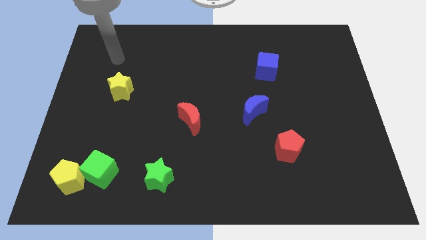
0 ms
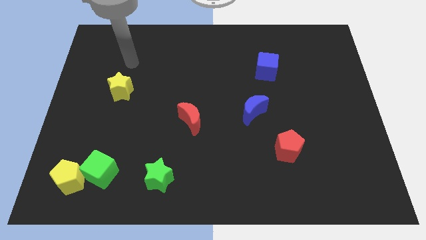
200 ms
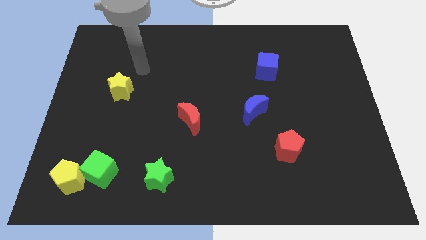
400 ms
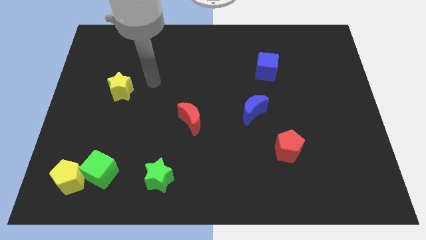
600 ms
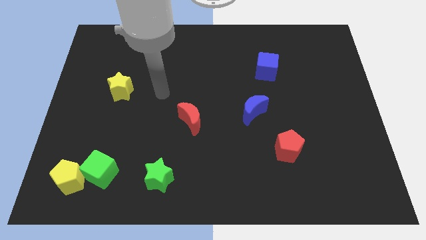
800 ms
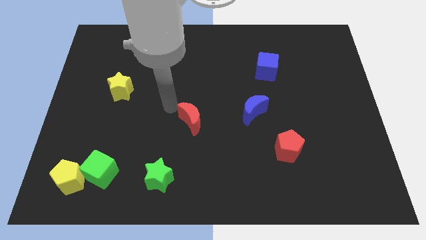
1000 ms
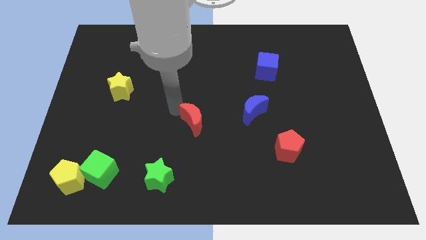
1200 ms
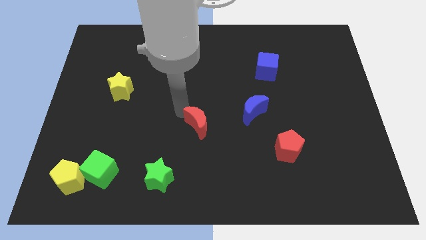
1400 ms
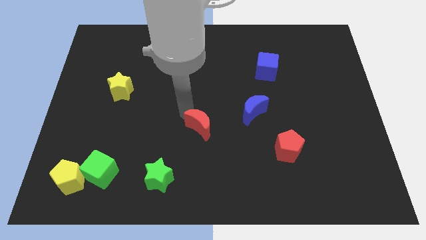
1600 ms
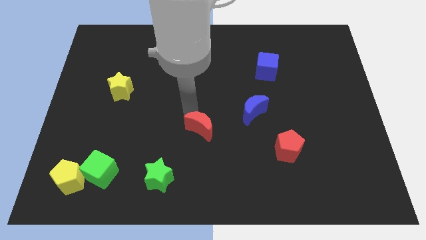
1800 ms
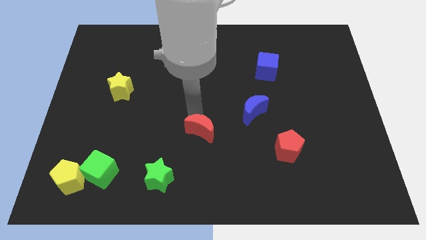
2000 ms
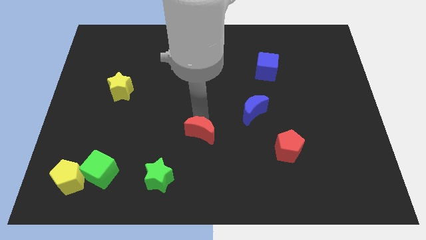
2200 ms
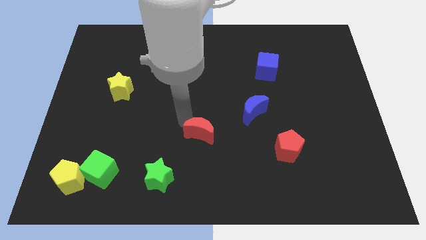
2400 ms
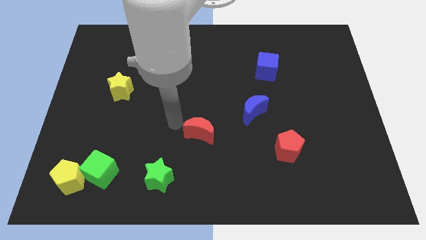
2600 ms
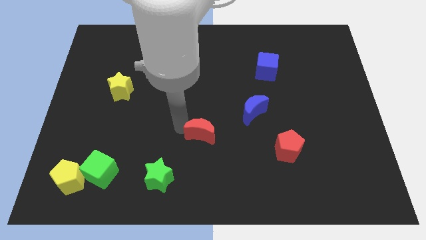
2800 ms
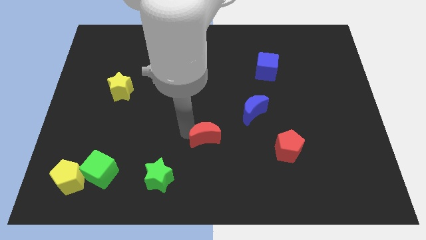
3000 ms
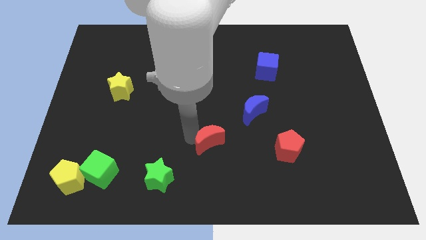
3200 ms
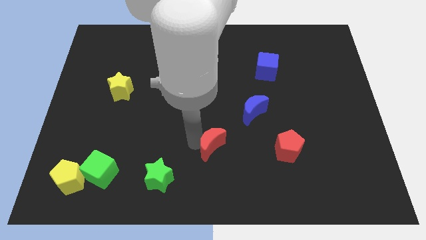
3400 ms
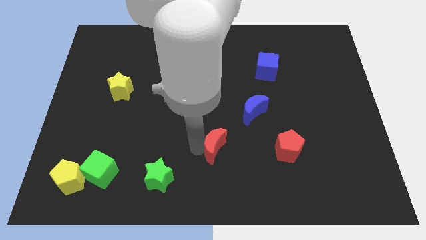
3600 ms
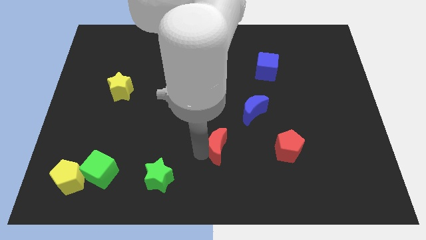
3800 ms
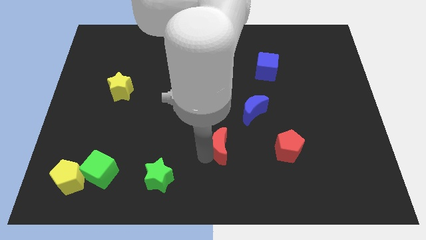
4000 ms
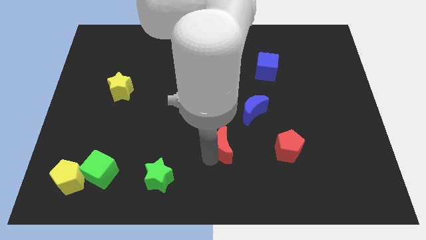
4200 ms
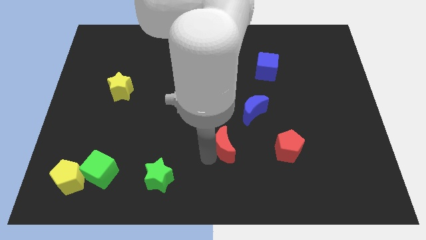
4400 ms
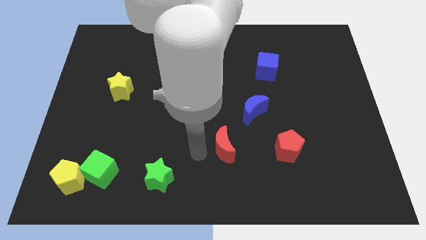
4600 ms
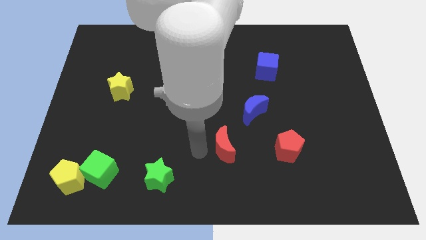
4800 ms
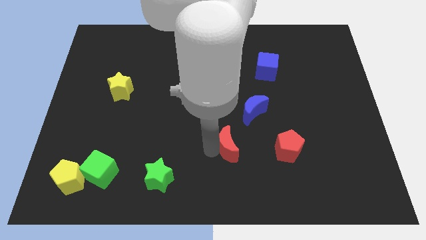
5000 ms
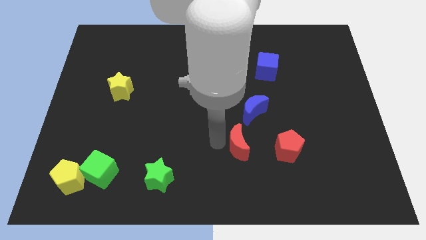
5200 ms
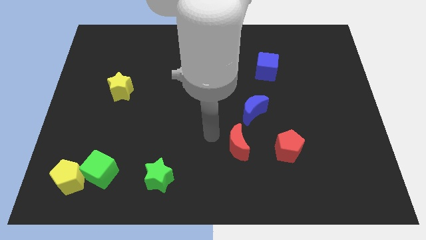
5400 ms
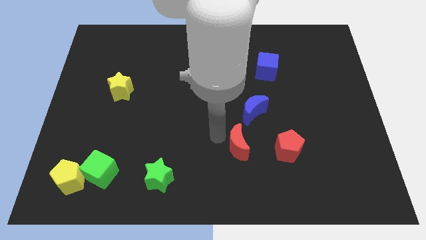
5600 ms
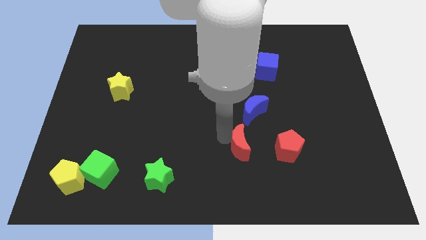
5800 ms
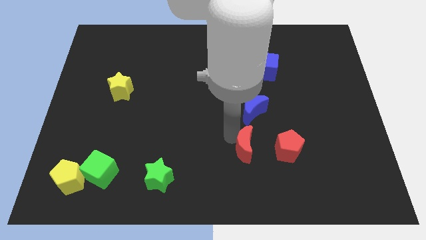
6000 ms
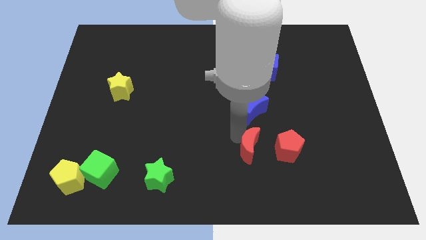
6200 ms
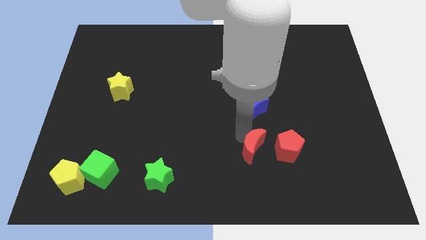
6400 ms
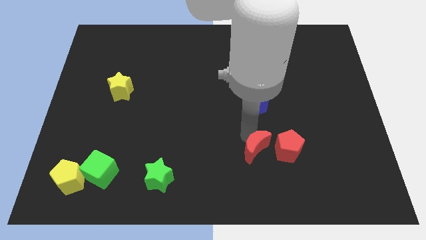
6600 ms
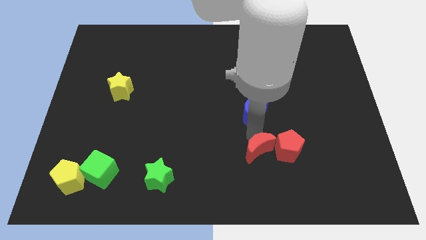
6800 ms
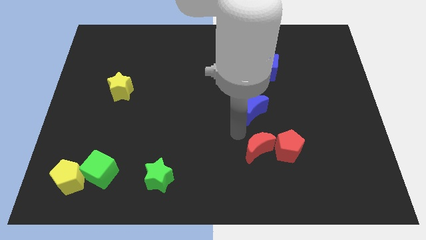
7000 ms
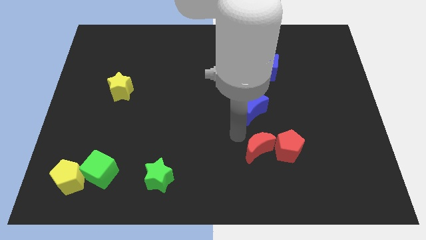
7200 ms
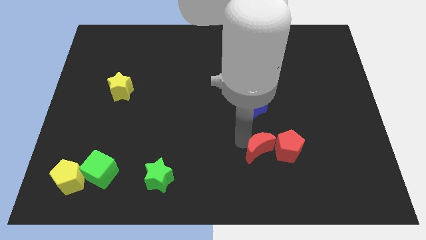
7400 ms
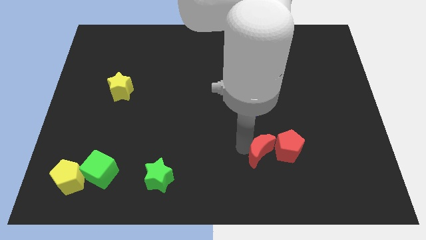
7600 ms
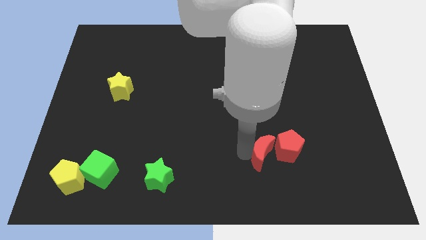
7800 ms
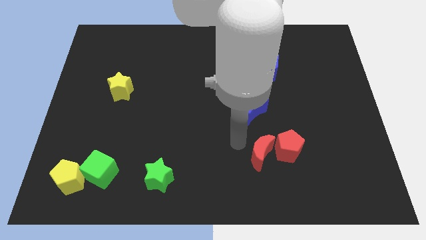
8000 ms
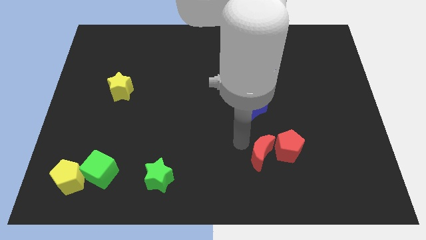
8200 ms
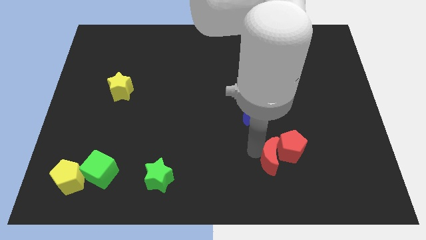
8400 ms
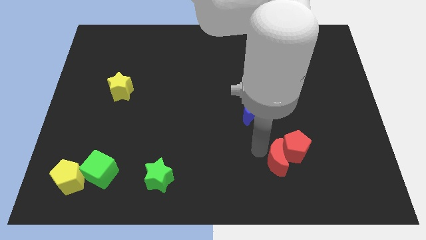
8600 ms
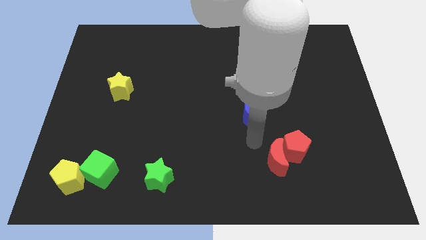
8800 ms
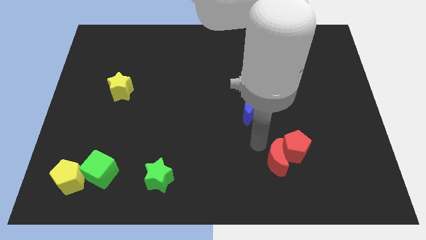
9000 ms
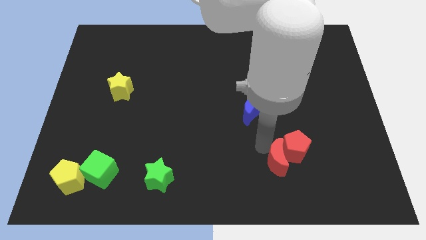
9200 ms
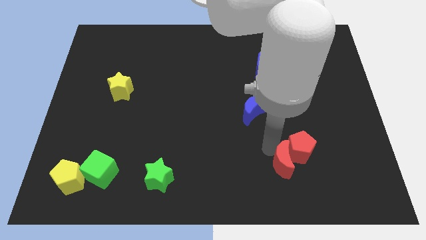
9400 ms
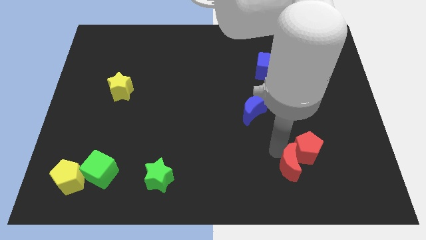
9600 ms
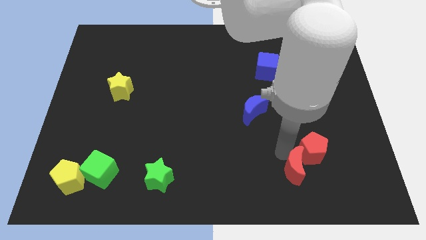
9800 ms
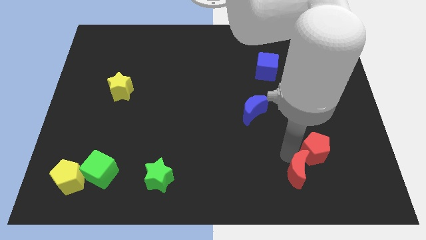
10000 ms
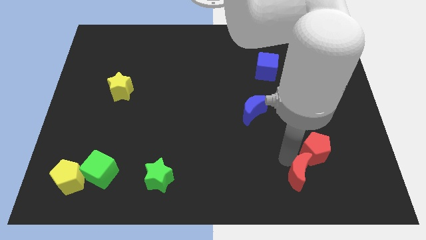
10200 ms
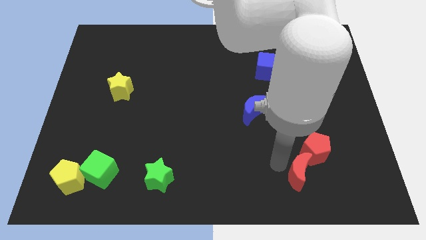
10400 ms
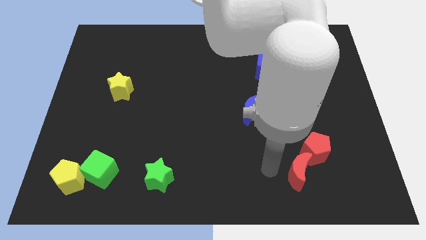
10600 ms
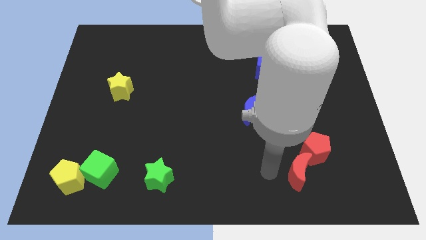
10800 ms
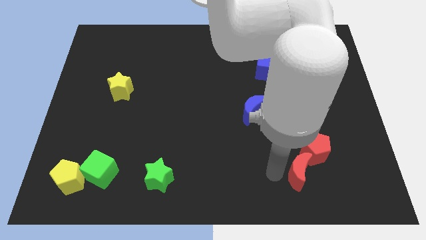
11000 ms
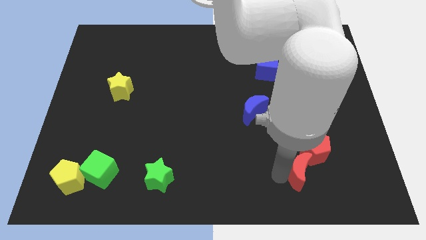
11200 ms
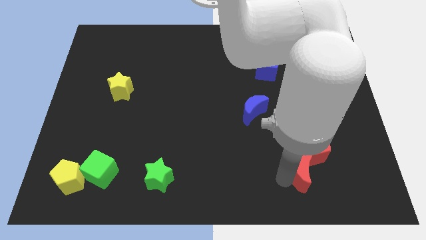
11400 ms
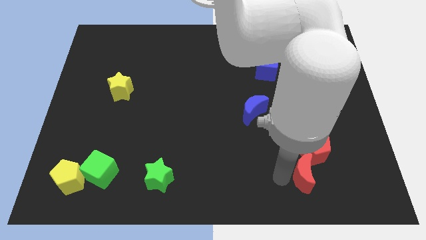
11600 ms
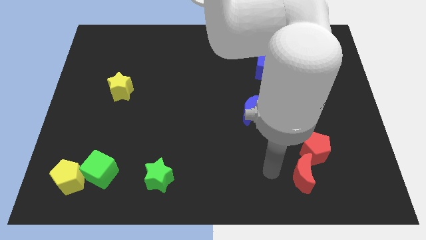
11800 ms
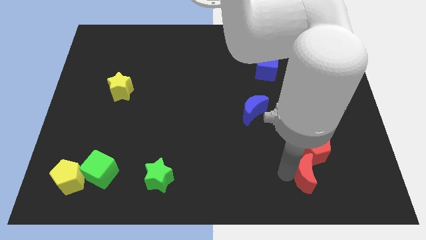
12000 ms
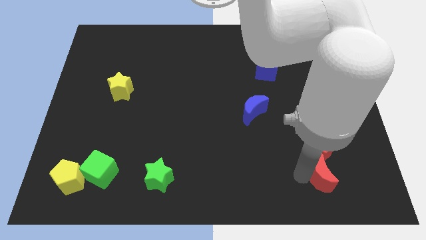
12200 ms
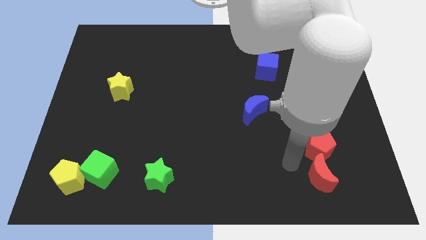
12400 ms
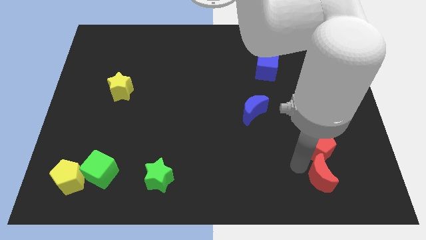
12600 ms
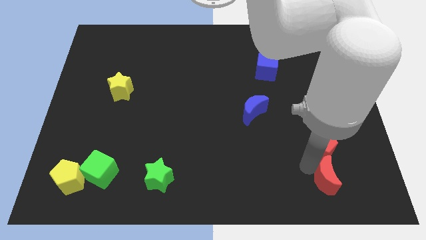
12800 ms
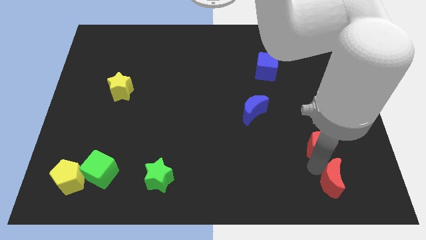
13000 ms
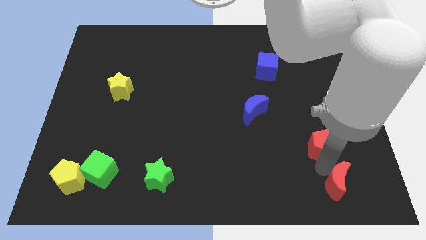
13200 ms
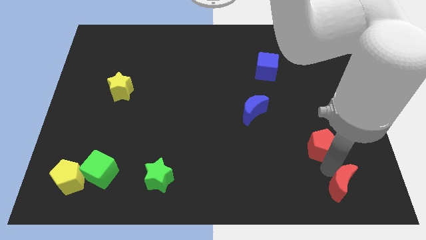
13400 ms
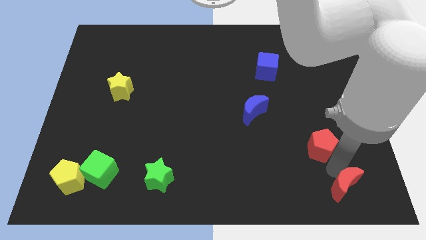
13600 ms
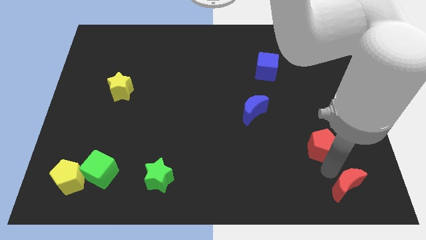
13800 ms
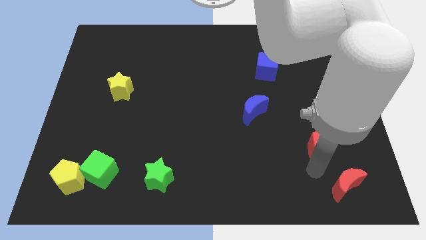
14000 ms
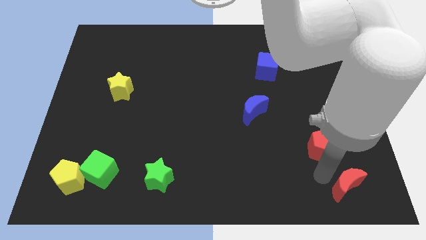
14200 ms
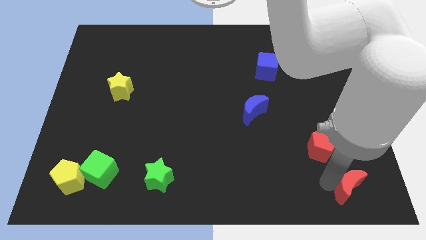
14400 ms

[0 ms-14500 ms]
push the red moon to the bottom right
